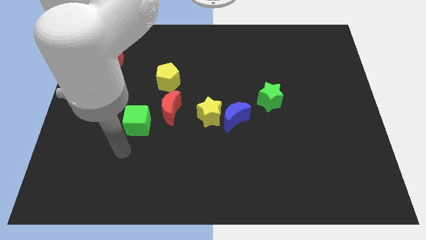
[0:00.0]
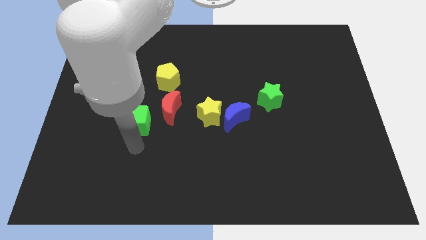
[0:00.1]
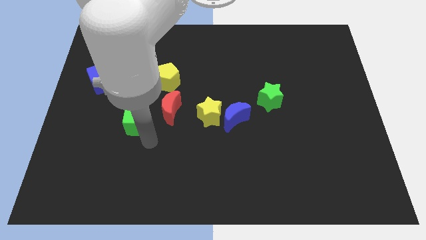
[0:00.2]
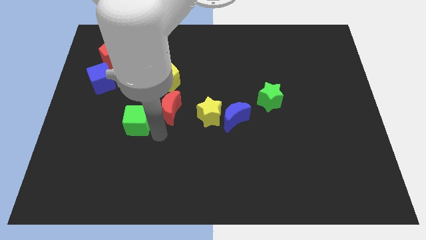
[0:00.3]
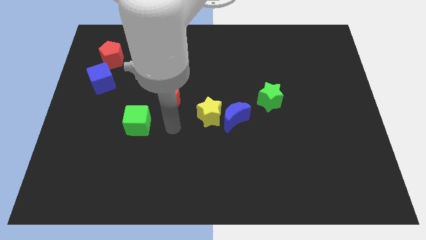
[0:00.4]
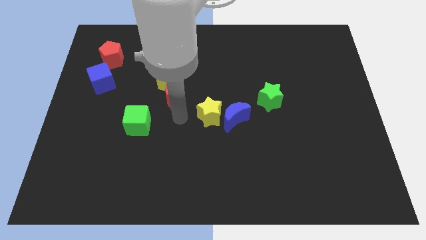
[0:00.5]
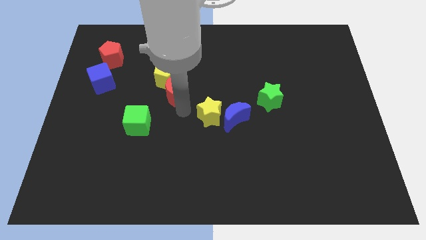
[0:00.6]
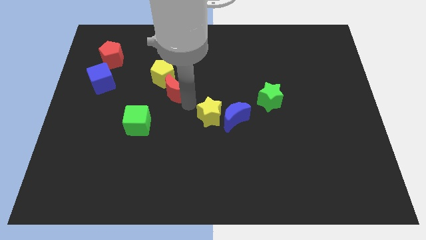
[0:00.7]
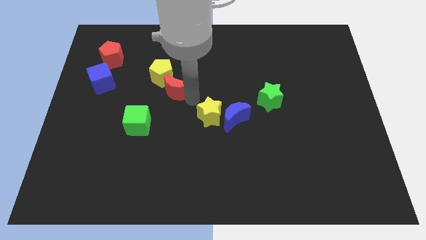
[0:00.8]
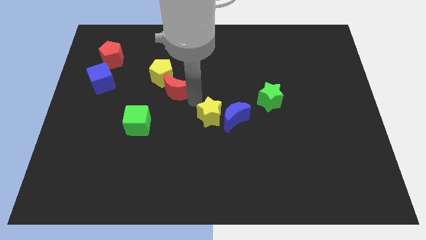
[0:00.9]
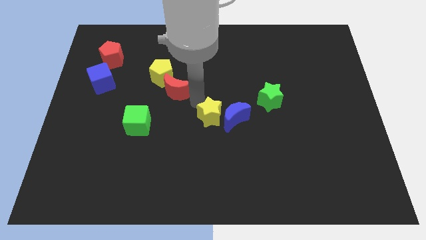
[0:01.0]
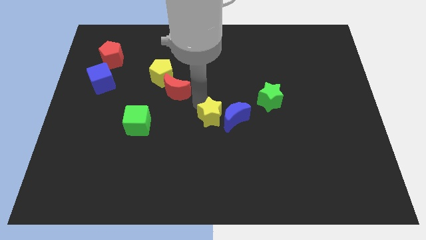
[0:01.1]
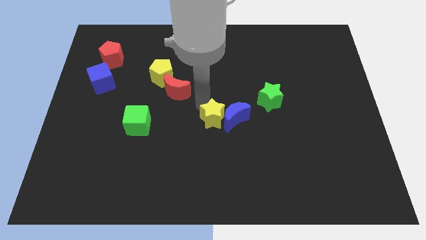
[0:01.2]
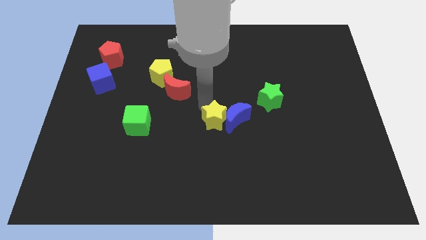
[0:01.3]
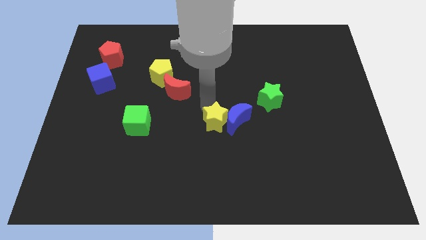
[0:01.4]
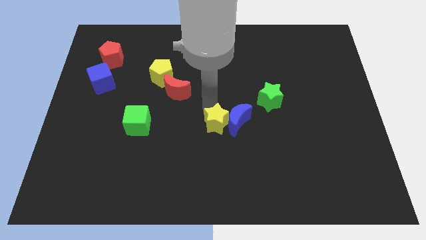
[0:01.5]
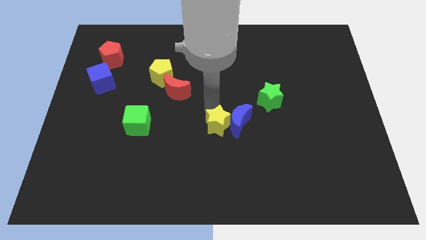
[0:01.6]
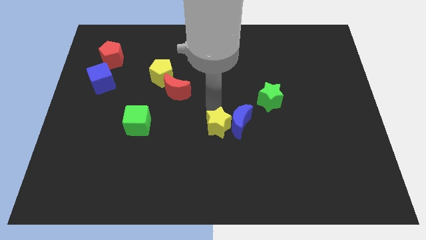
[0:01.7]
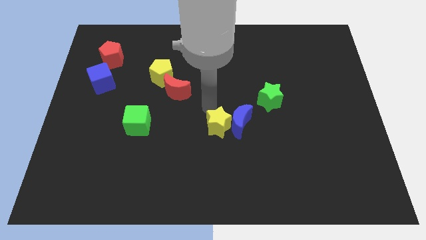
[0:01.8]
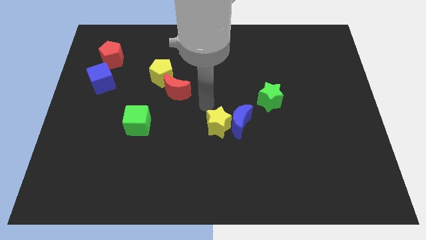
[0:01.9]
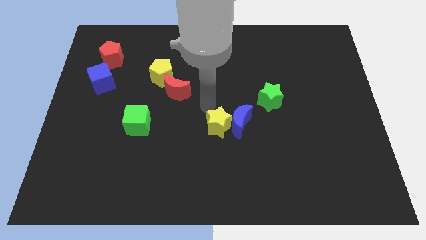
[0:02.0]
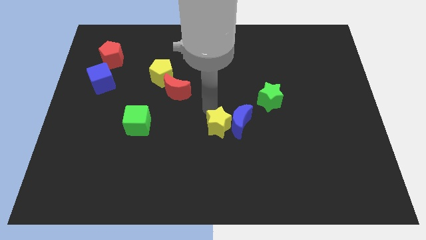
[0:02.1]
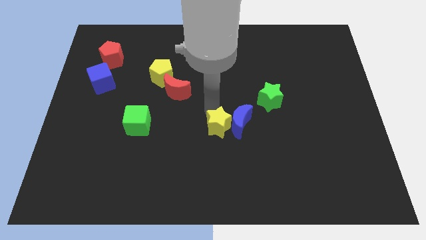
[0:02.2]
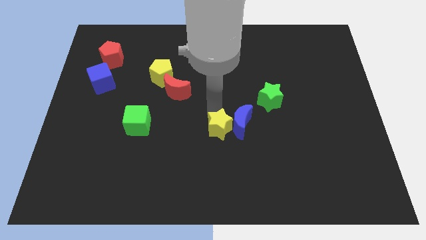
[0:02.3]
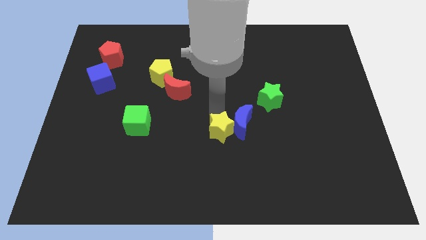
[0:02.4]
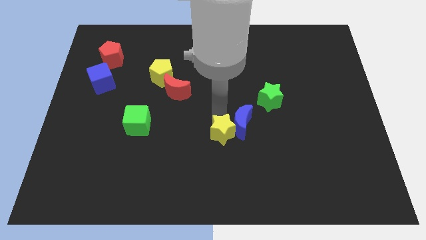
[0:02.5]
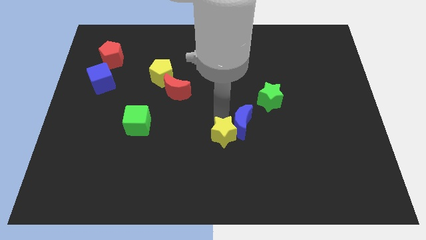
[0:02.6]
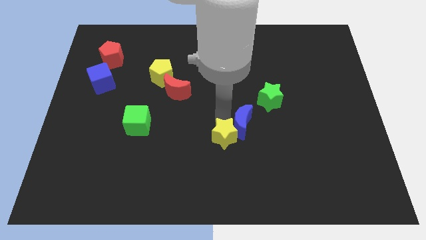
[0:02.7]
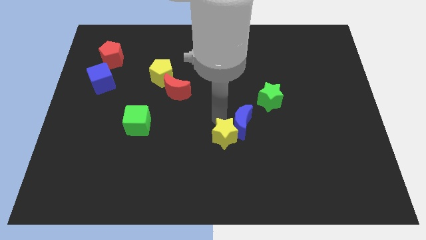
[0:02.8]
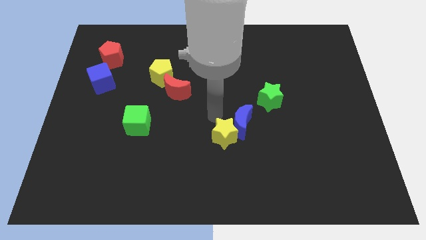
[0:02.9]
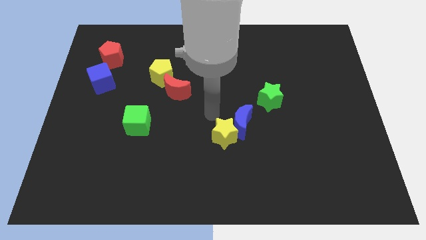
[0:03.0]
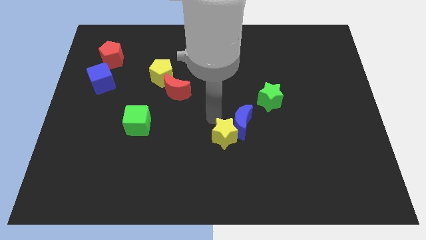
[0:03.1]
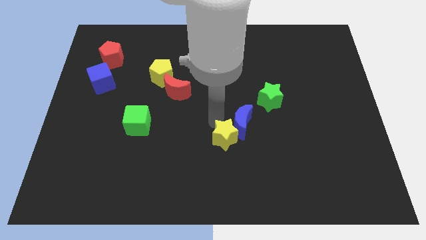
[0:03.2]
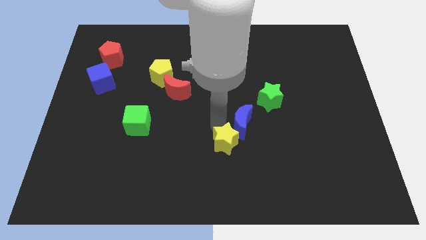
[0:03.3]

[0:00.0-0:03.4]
separate the yellow star from the blue moon and red moon

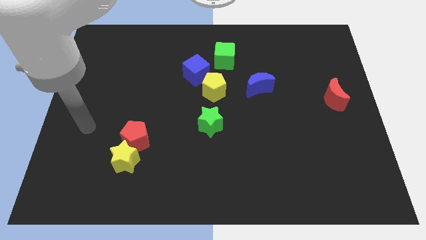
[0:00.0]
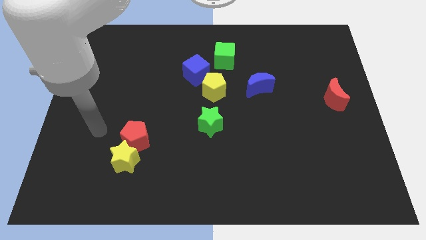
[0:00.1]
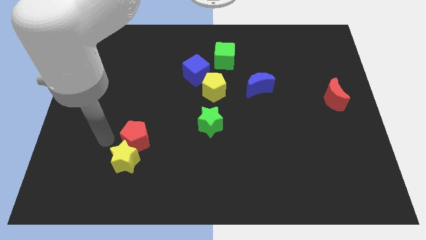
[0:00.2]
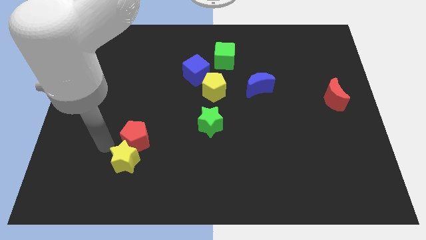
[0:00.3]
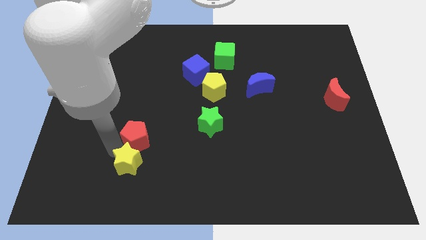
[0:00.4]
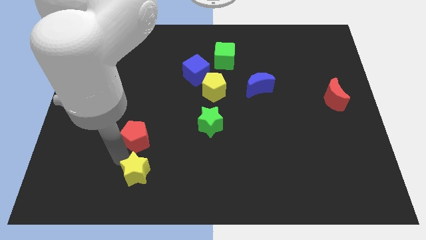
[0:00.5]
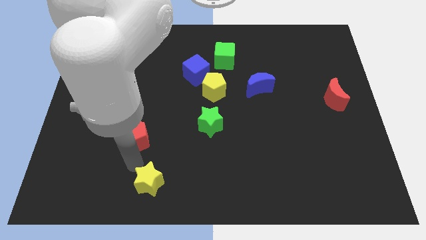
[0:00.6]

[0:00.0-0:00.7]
move the red pentagon away from the yellow star

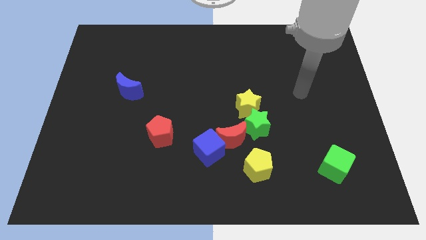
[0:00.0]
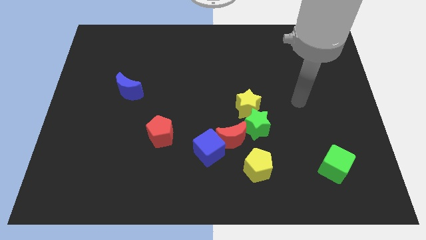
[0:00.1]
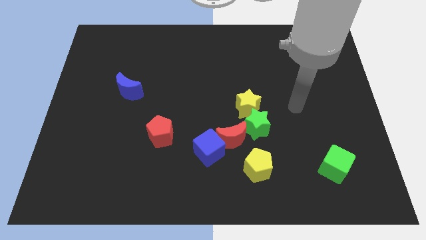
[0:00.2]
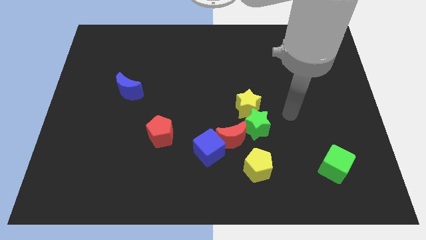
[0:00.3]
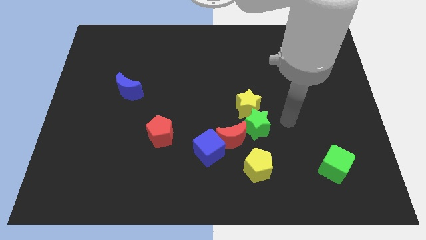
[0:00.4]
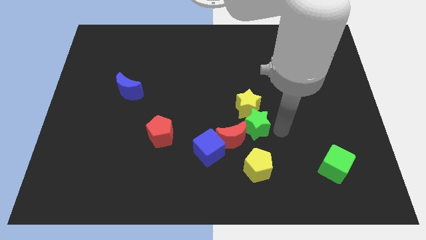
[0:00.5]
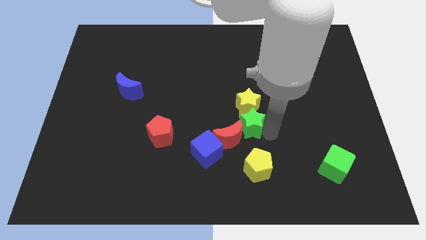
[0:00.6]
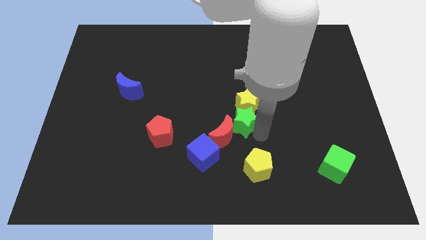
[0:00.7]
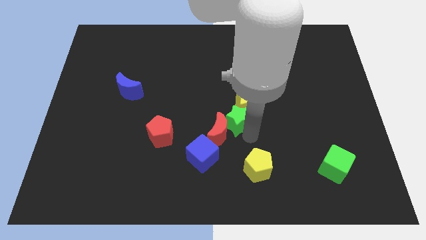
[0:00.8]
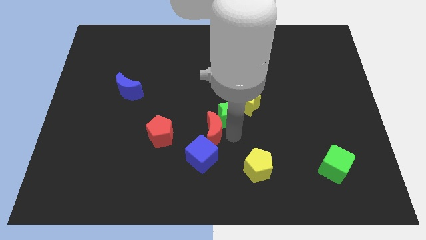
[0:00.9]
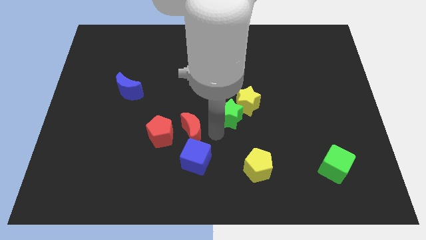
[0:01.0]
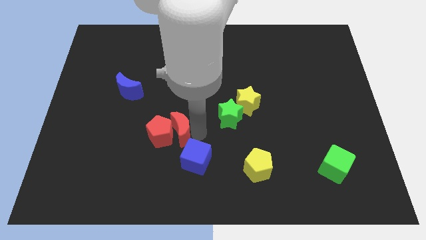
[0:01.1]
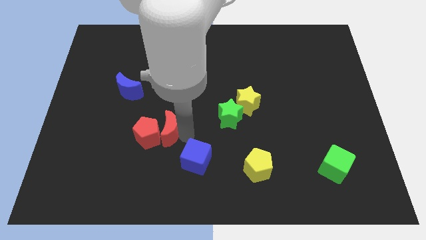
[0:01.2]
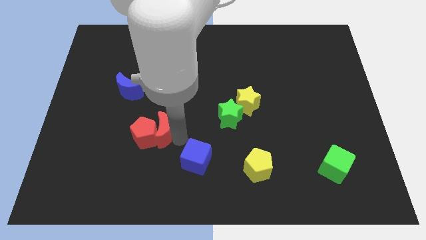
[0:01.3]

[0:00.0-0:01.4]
separate the blue cube from the red moon

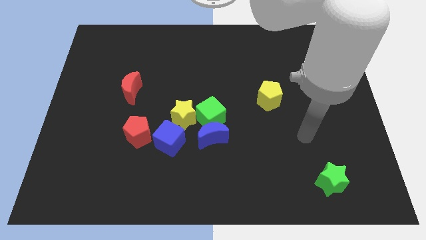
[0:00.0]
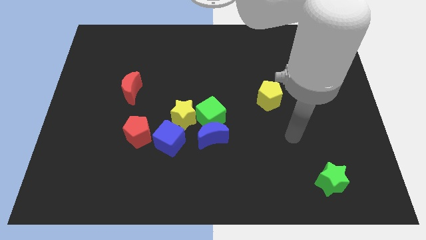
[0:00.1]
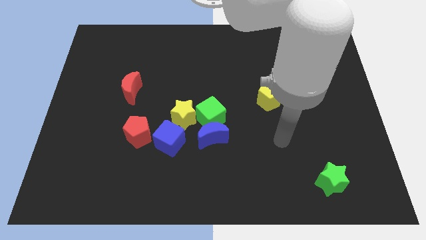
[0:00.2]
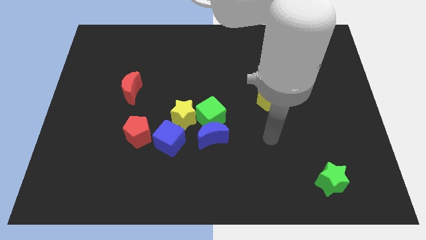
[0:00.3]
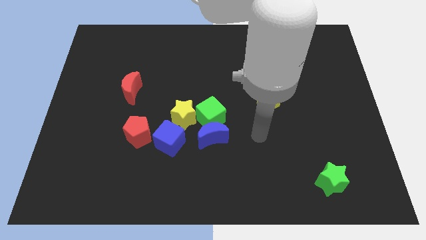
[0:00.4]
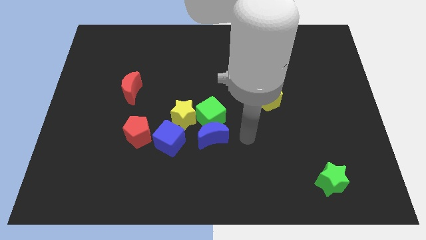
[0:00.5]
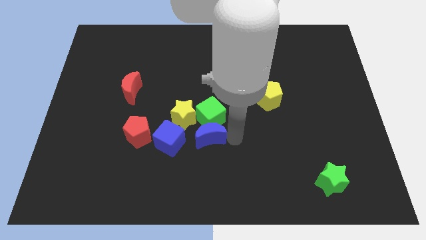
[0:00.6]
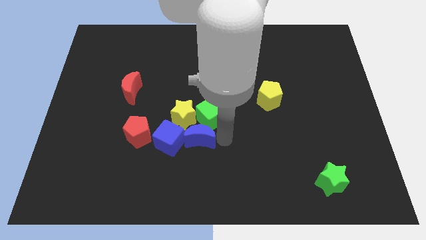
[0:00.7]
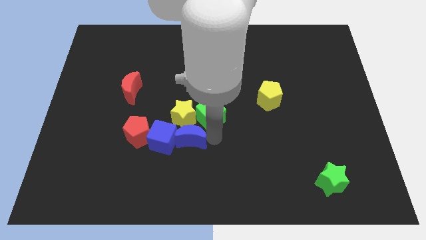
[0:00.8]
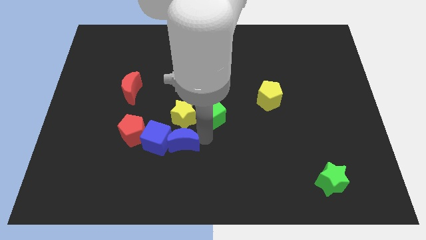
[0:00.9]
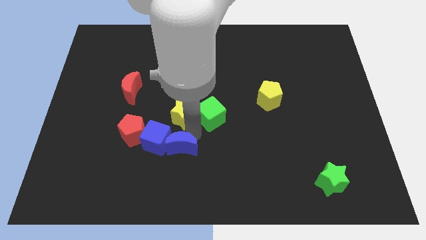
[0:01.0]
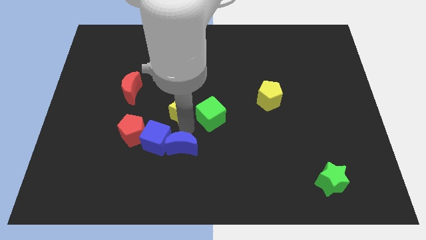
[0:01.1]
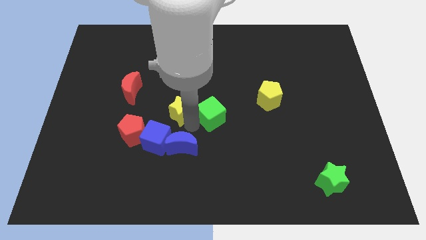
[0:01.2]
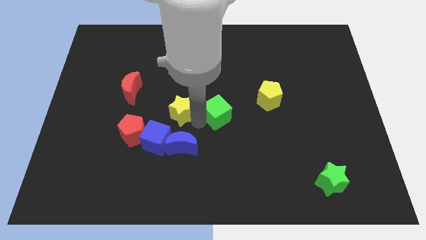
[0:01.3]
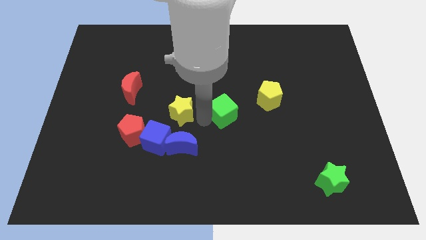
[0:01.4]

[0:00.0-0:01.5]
separate the green cube from the blue moon and yellow star

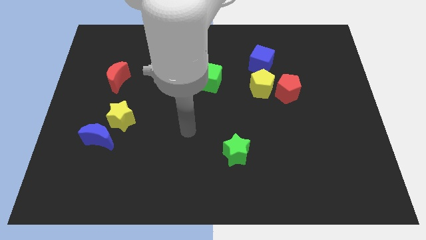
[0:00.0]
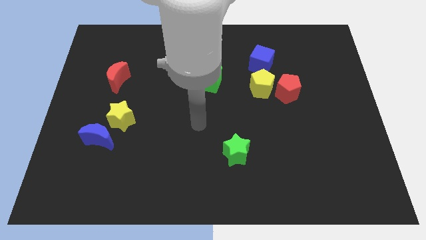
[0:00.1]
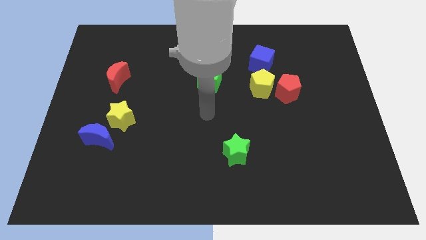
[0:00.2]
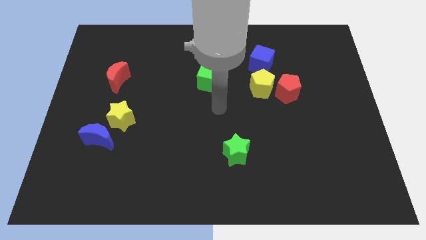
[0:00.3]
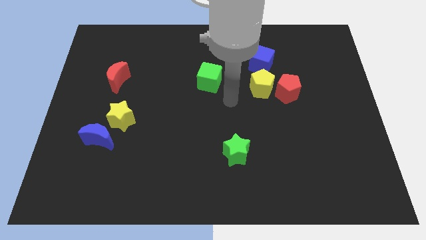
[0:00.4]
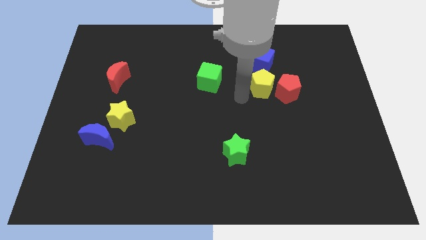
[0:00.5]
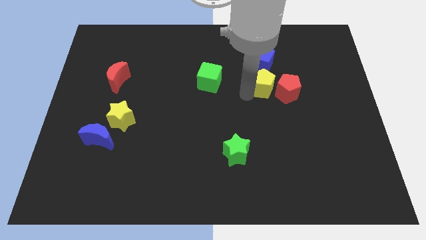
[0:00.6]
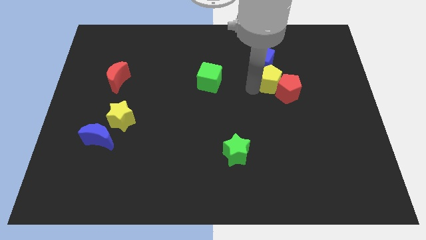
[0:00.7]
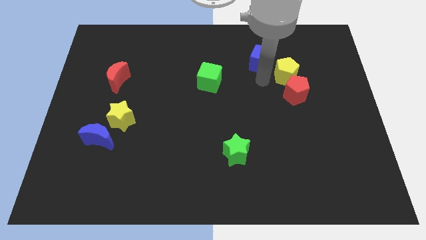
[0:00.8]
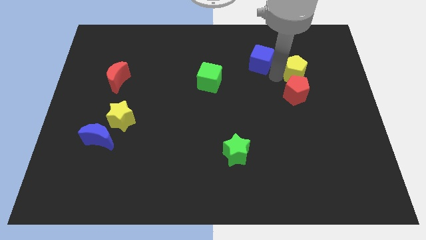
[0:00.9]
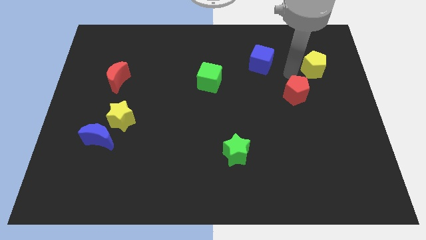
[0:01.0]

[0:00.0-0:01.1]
pull the red pentagon apart from the yellow pentagon

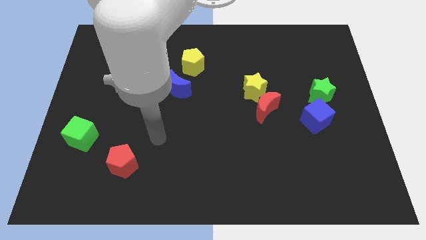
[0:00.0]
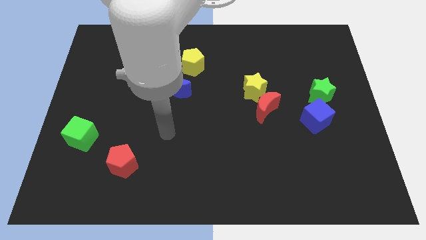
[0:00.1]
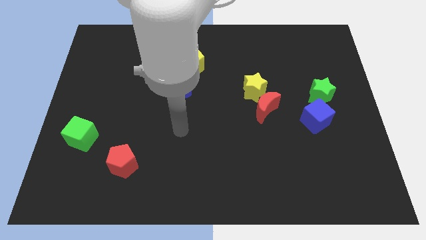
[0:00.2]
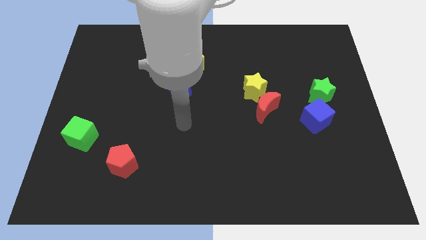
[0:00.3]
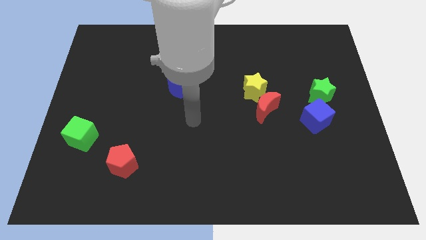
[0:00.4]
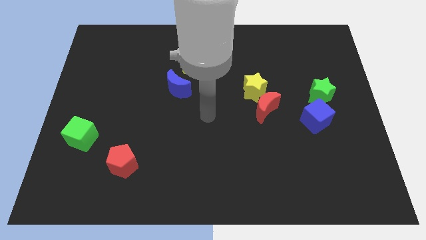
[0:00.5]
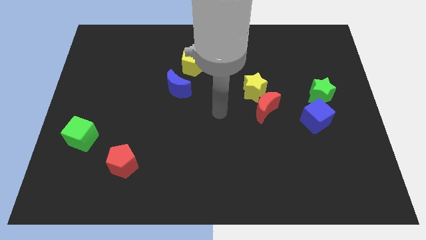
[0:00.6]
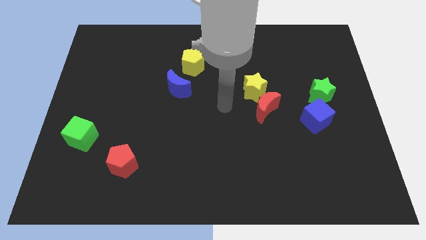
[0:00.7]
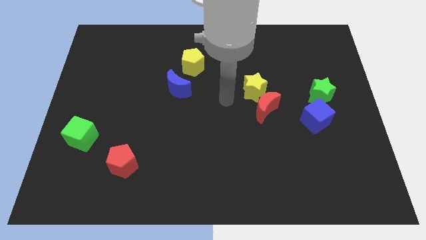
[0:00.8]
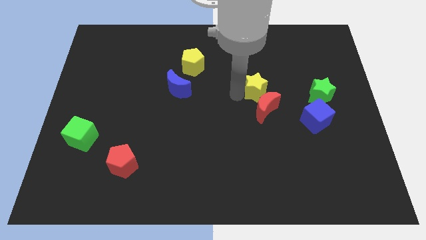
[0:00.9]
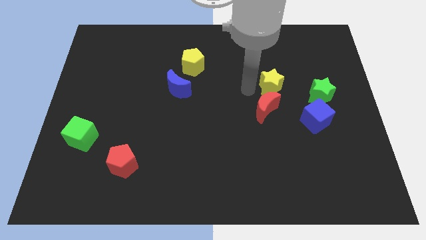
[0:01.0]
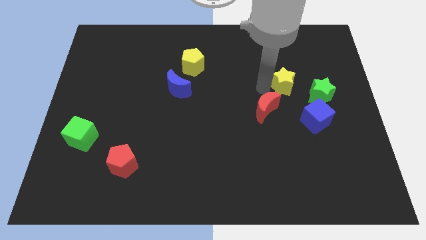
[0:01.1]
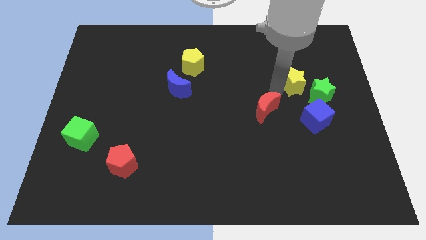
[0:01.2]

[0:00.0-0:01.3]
move the red moon away from the yellow star
